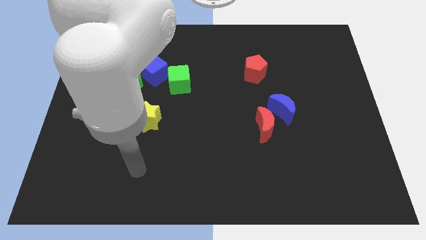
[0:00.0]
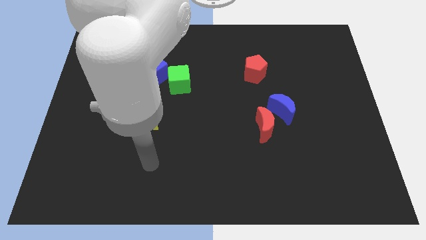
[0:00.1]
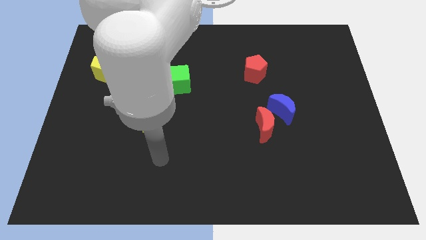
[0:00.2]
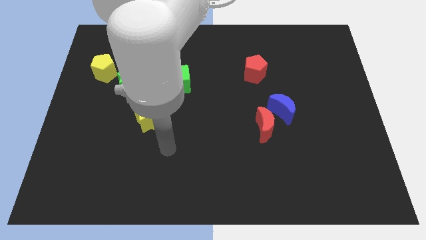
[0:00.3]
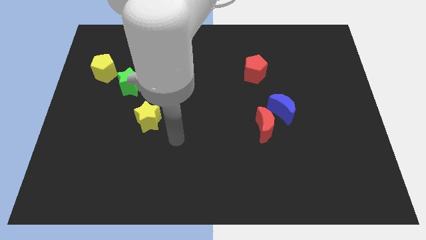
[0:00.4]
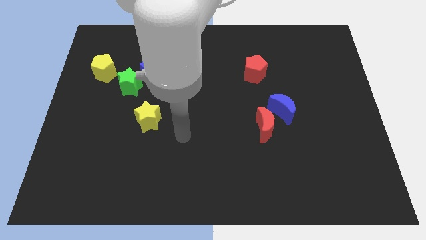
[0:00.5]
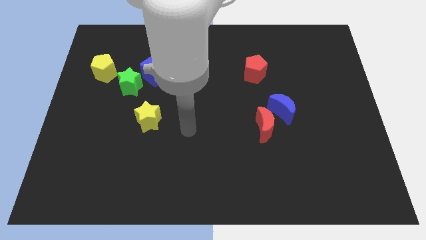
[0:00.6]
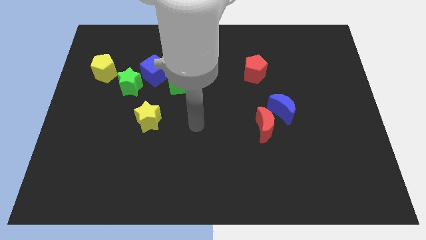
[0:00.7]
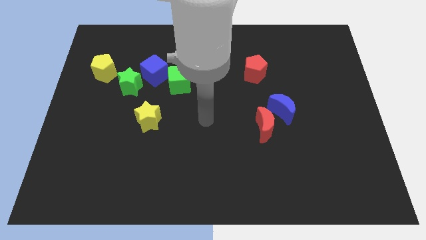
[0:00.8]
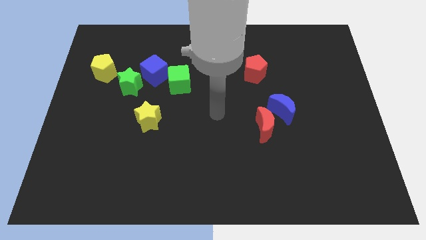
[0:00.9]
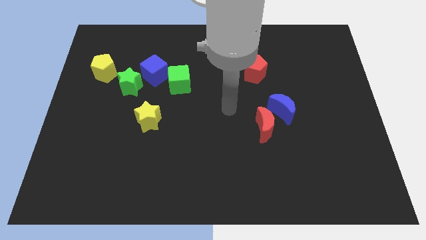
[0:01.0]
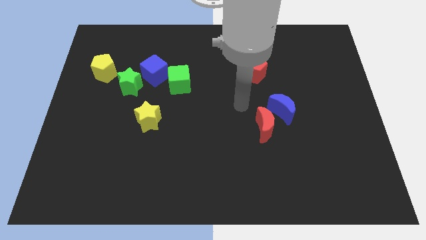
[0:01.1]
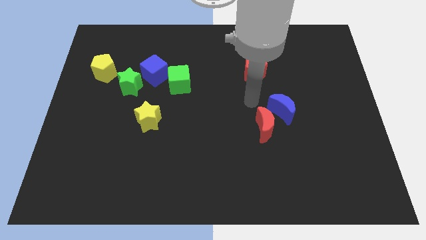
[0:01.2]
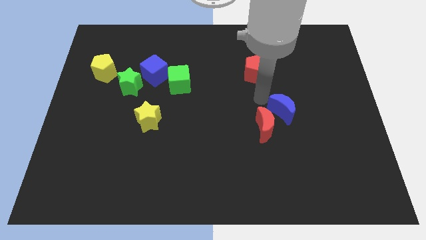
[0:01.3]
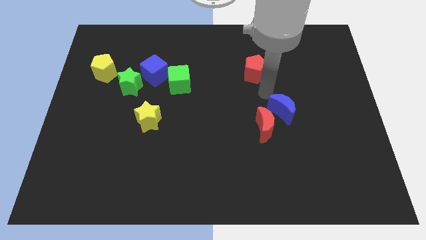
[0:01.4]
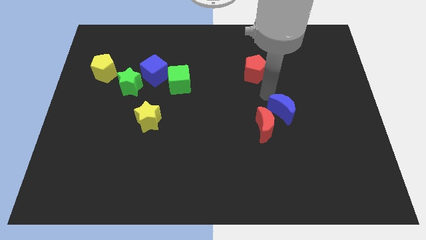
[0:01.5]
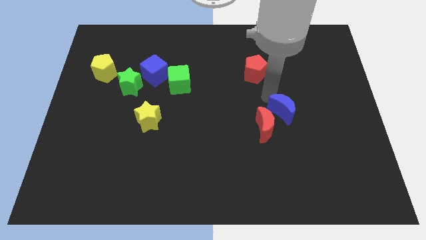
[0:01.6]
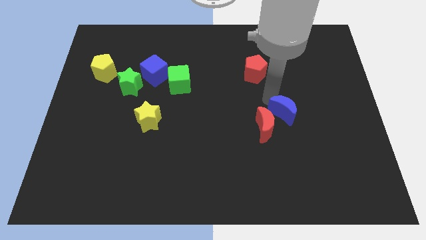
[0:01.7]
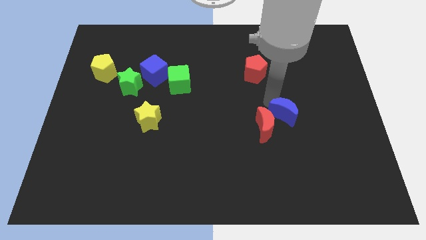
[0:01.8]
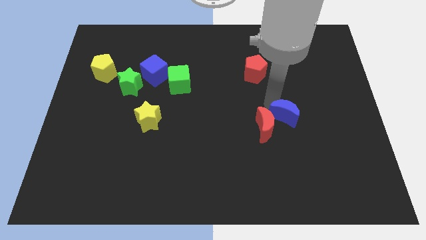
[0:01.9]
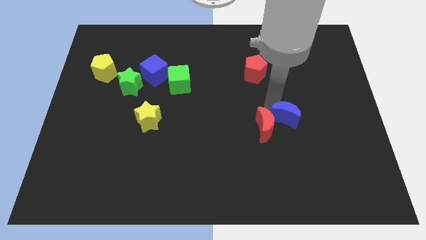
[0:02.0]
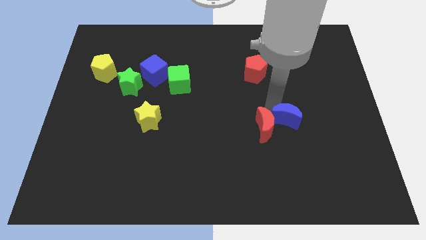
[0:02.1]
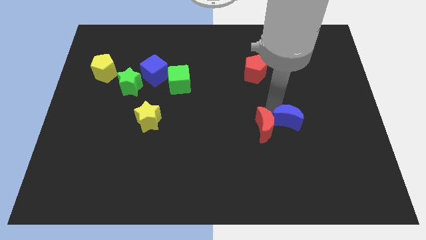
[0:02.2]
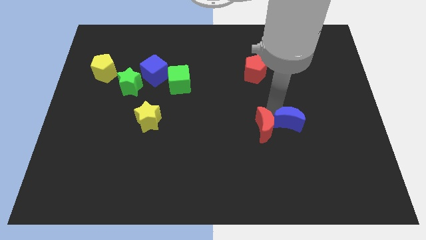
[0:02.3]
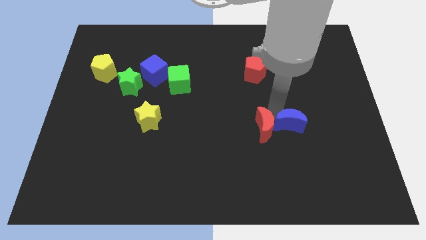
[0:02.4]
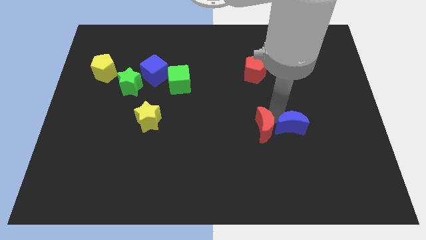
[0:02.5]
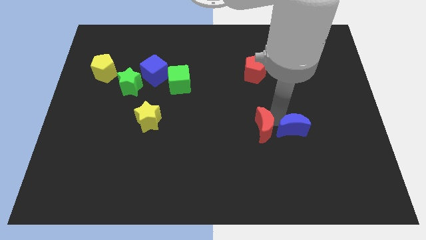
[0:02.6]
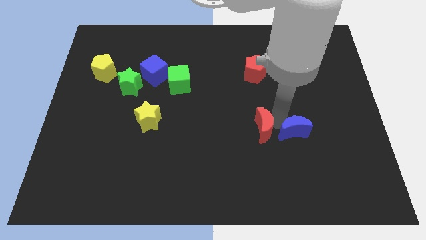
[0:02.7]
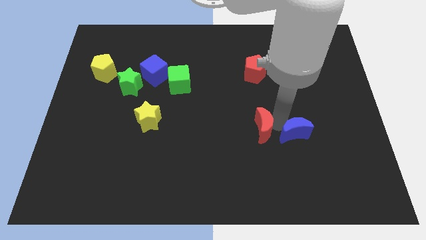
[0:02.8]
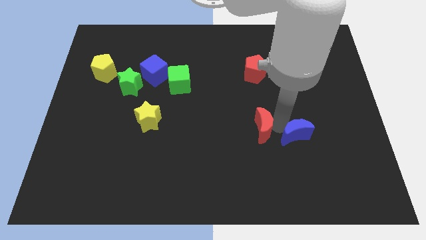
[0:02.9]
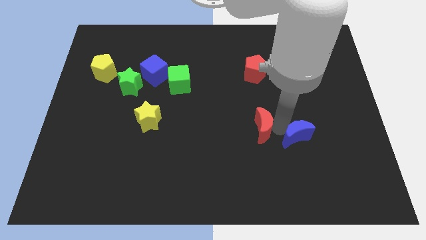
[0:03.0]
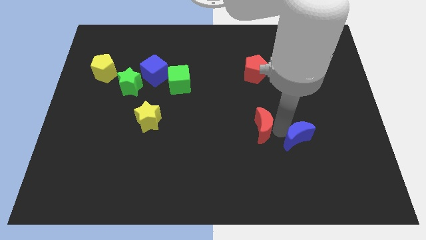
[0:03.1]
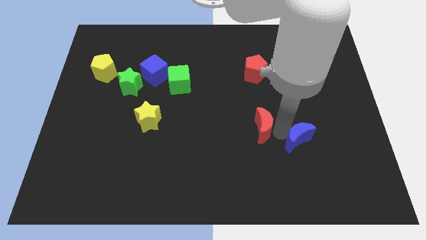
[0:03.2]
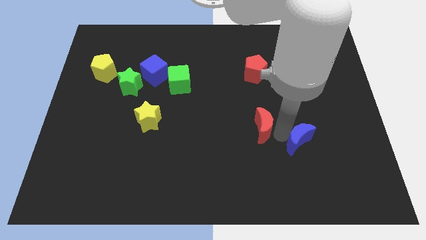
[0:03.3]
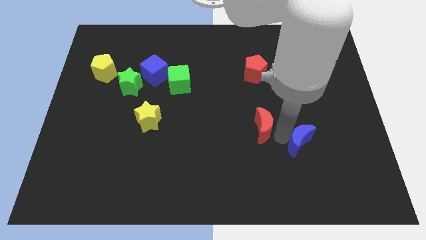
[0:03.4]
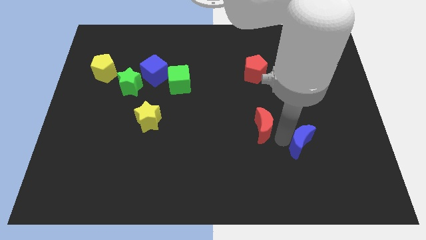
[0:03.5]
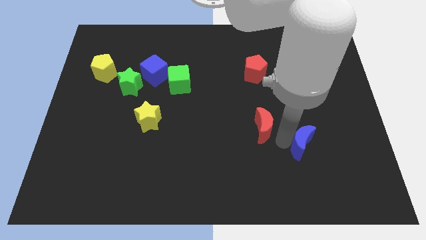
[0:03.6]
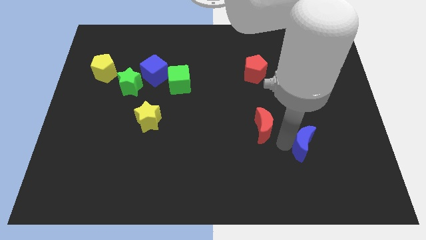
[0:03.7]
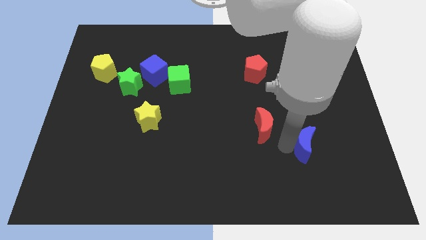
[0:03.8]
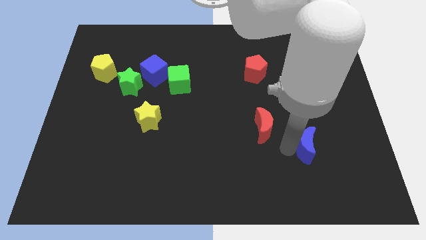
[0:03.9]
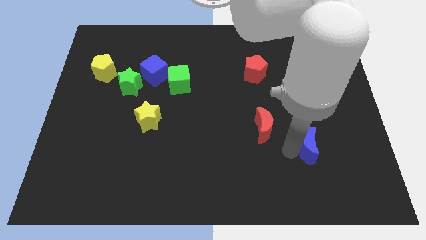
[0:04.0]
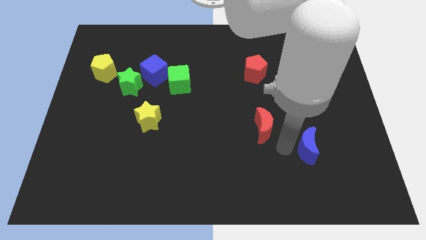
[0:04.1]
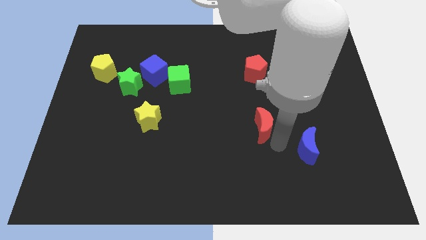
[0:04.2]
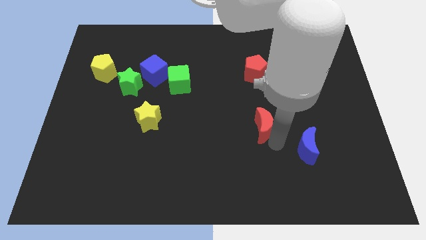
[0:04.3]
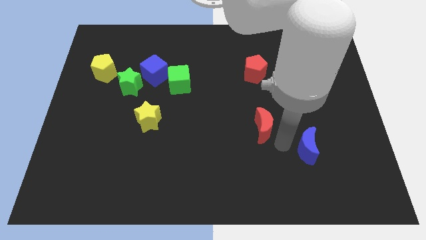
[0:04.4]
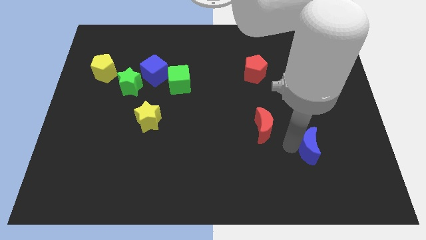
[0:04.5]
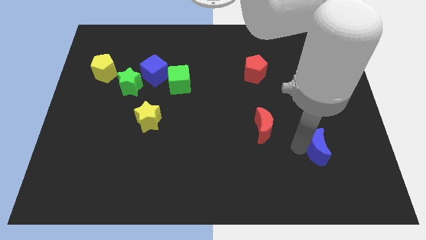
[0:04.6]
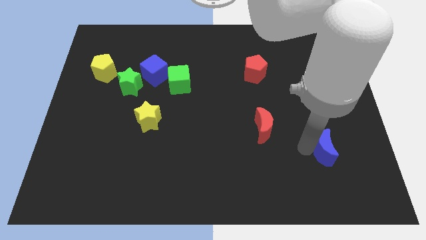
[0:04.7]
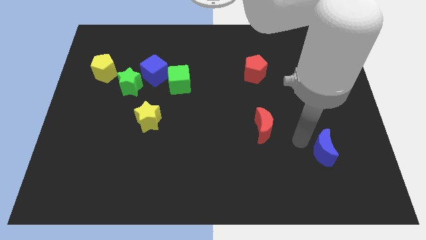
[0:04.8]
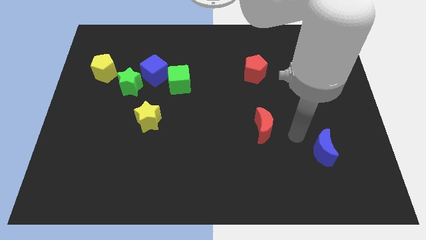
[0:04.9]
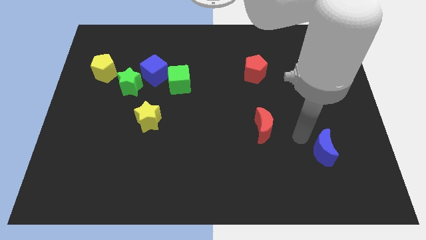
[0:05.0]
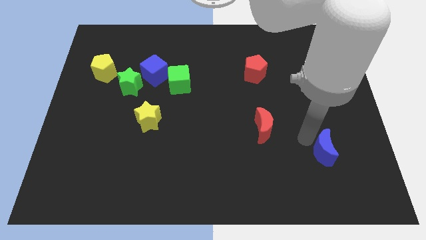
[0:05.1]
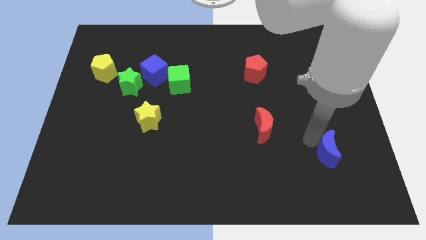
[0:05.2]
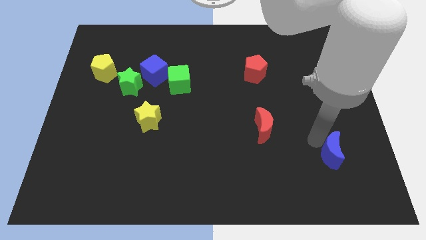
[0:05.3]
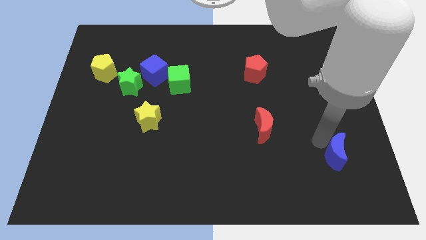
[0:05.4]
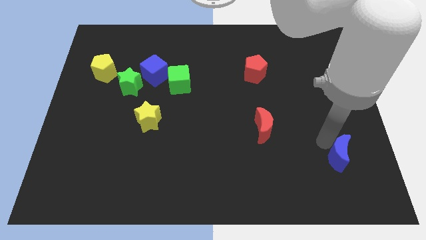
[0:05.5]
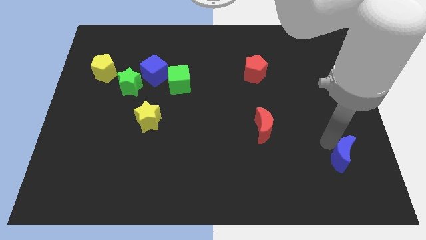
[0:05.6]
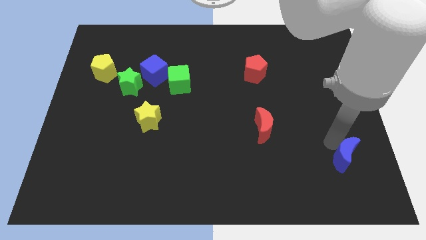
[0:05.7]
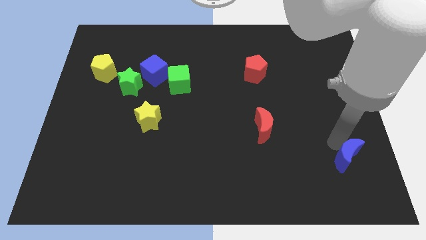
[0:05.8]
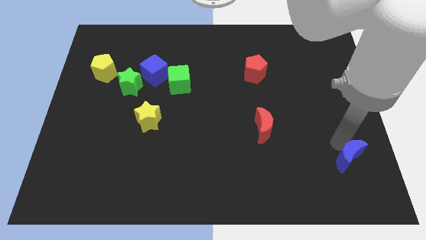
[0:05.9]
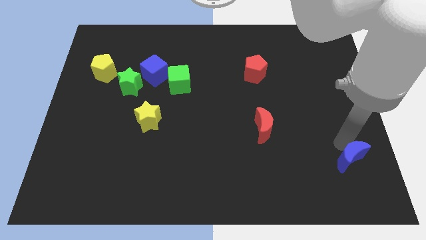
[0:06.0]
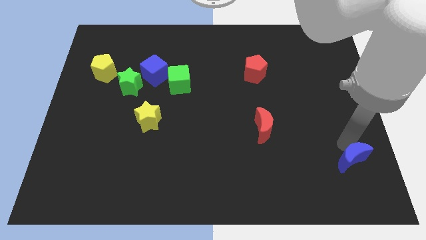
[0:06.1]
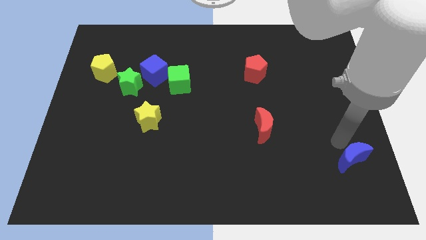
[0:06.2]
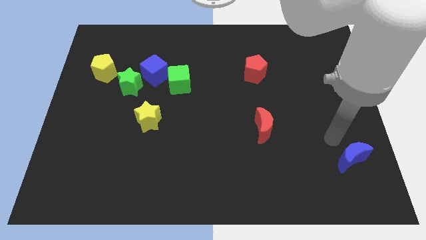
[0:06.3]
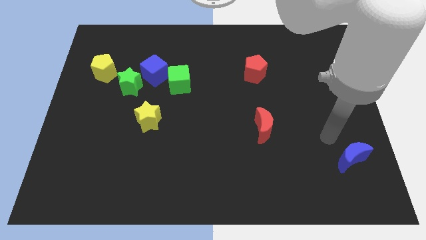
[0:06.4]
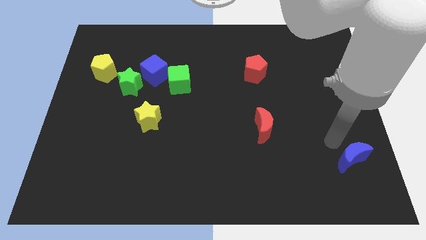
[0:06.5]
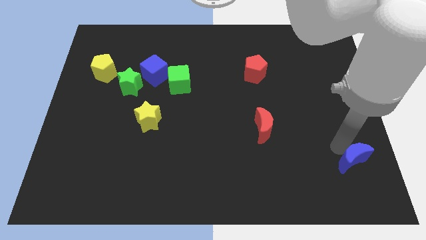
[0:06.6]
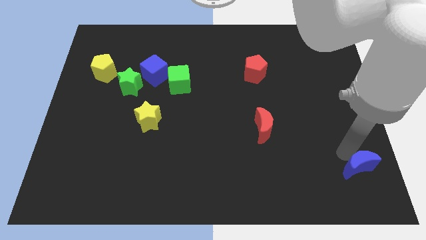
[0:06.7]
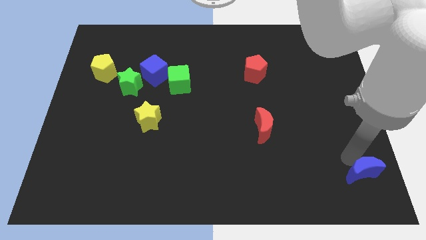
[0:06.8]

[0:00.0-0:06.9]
put the blue moon to the bottom right of the board
